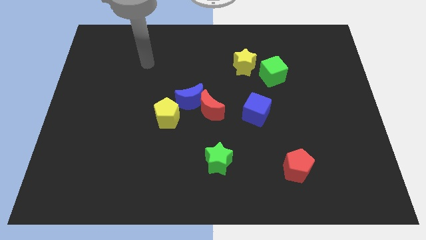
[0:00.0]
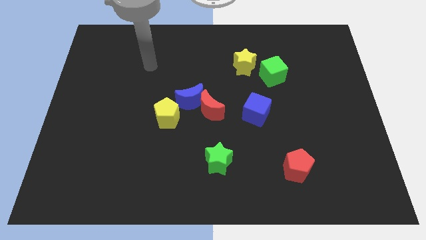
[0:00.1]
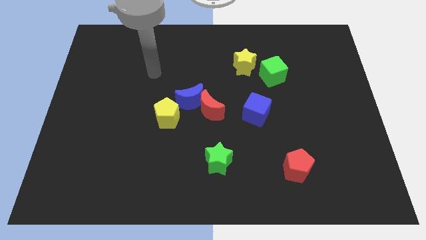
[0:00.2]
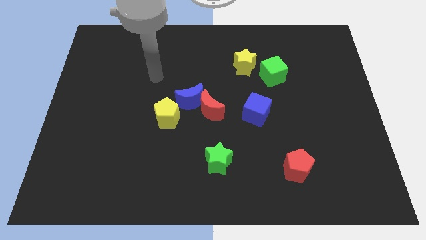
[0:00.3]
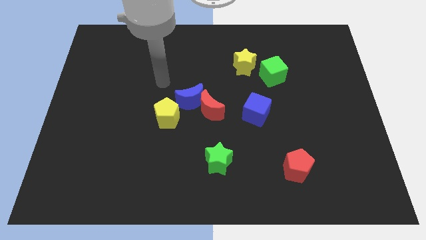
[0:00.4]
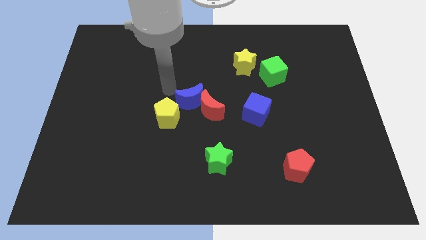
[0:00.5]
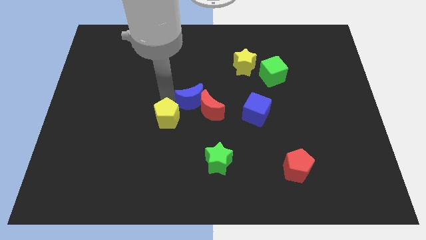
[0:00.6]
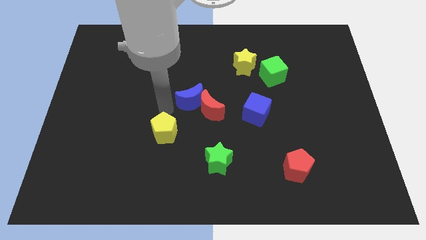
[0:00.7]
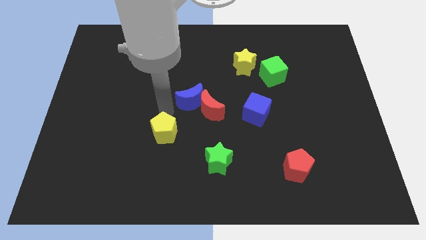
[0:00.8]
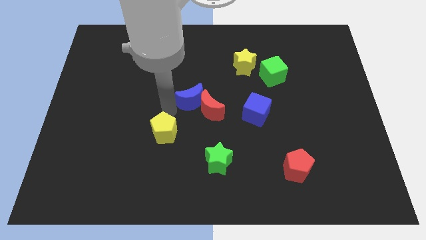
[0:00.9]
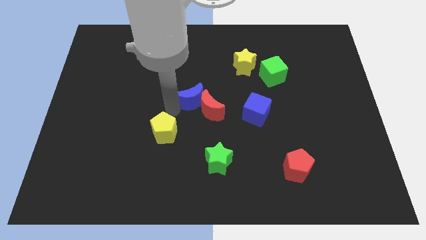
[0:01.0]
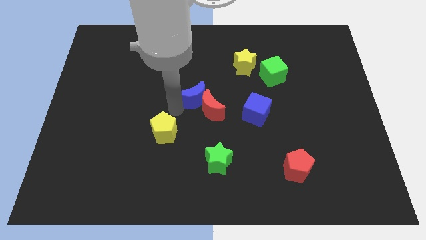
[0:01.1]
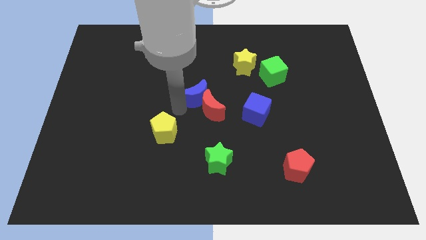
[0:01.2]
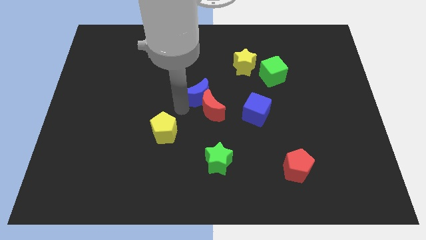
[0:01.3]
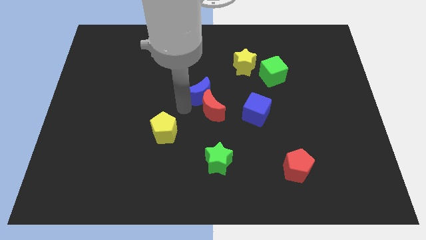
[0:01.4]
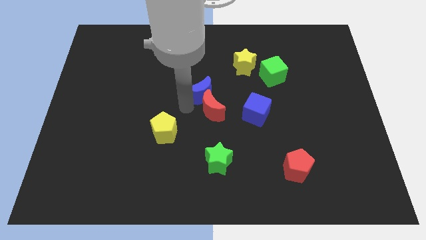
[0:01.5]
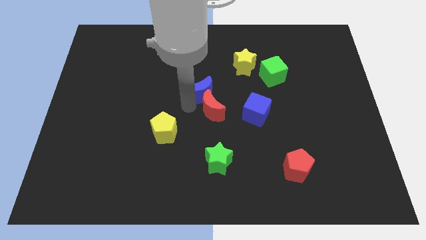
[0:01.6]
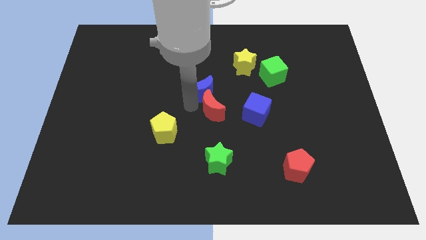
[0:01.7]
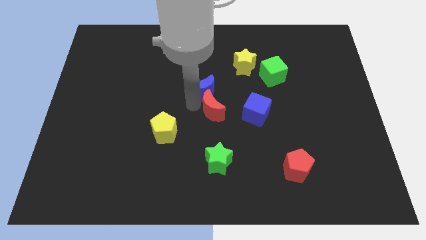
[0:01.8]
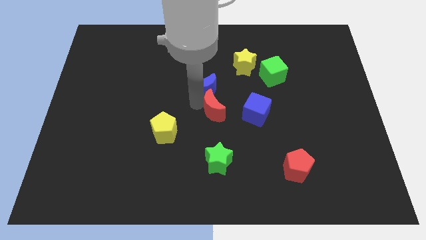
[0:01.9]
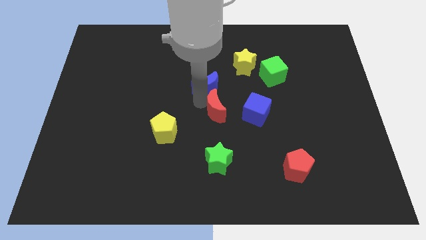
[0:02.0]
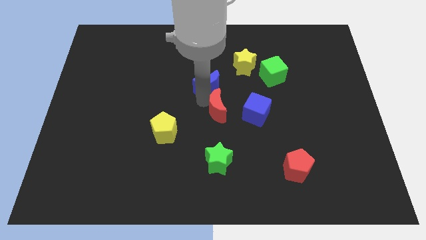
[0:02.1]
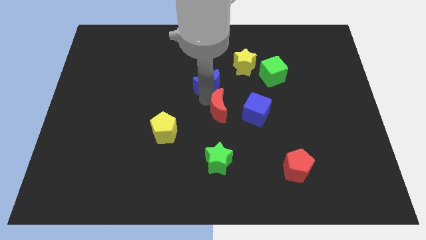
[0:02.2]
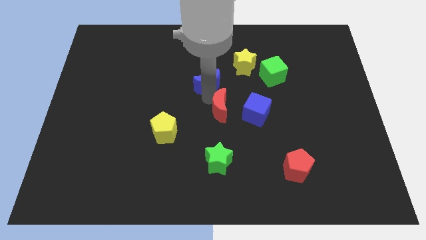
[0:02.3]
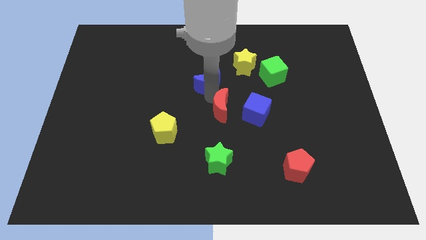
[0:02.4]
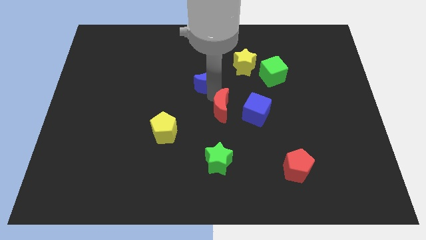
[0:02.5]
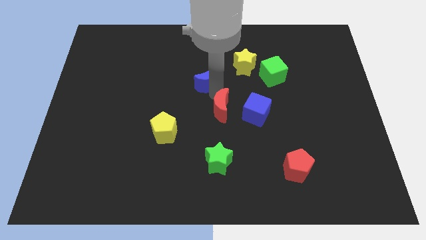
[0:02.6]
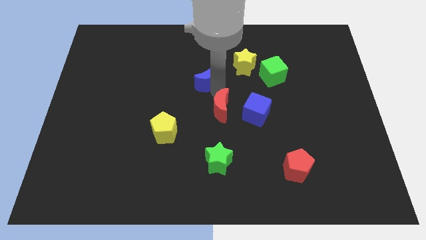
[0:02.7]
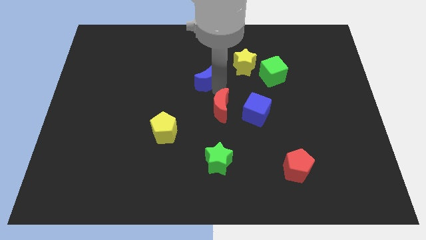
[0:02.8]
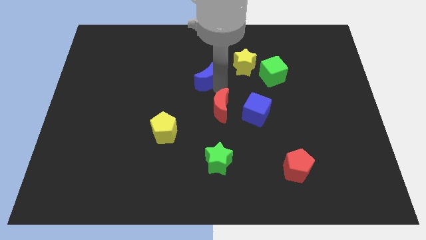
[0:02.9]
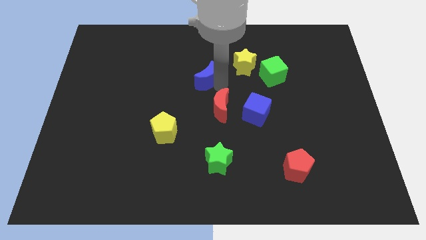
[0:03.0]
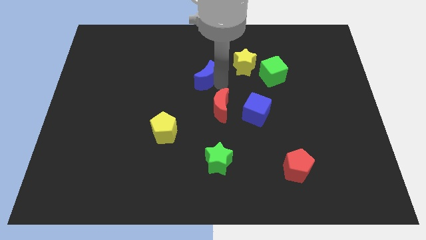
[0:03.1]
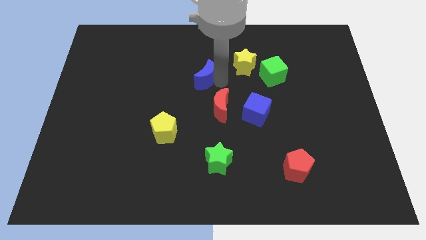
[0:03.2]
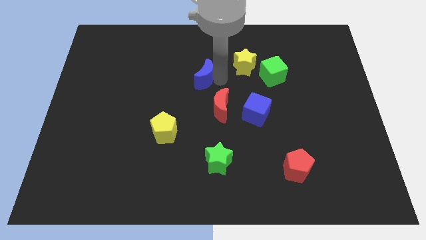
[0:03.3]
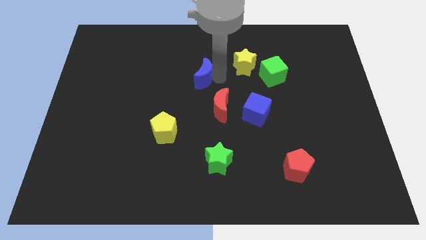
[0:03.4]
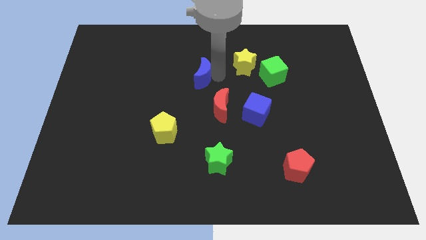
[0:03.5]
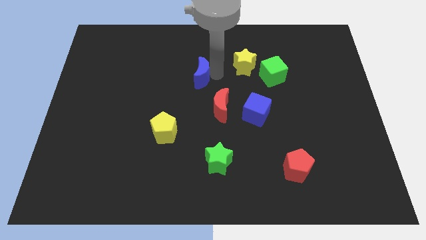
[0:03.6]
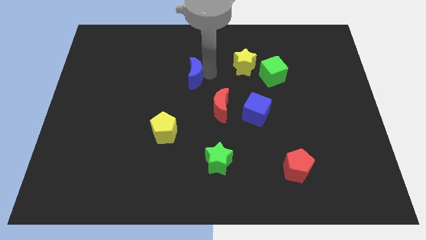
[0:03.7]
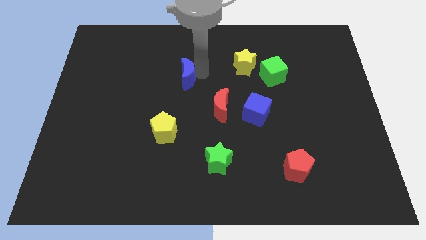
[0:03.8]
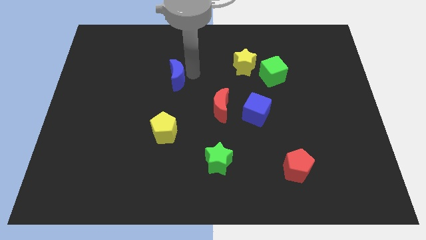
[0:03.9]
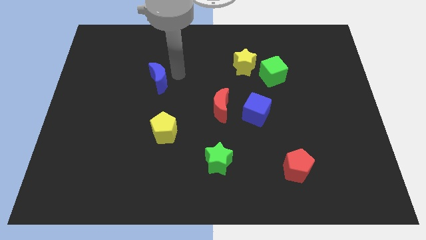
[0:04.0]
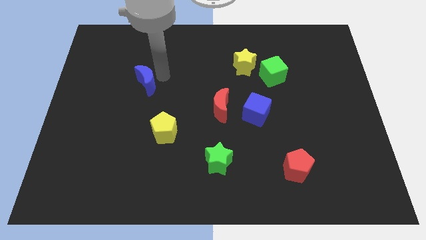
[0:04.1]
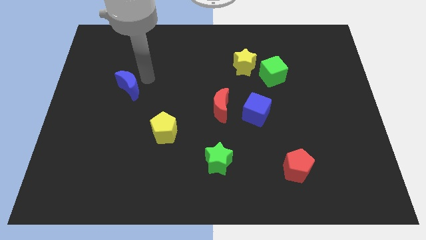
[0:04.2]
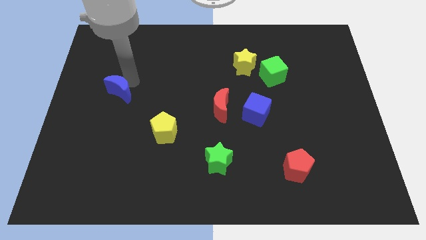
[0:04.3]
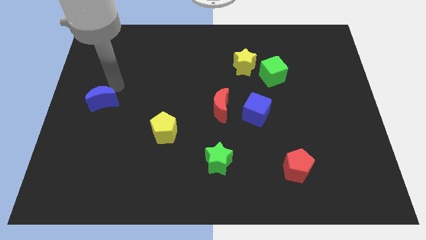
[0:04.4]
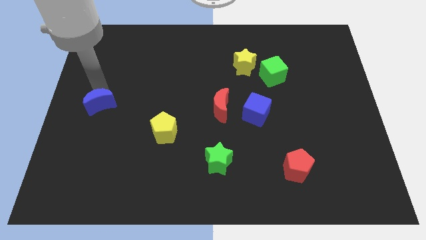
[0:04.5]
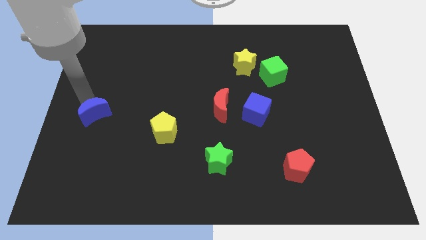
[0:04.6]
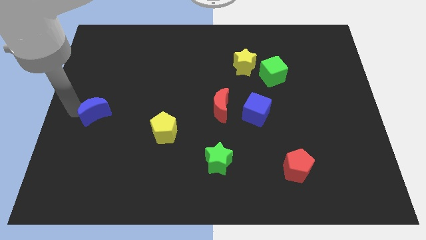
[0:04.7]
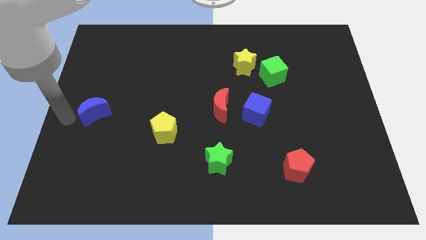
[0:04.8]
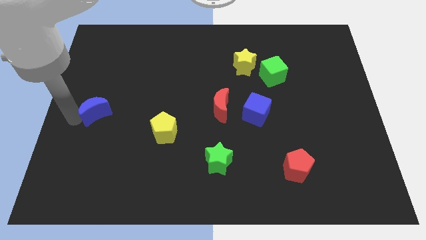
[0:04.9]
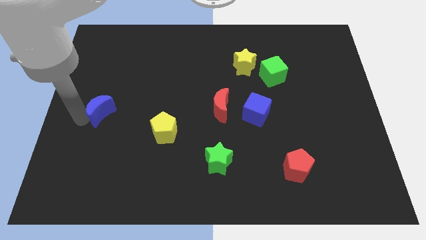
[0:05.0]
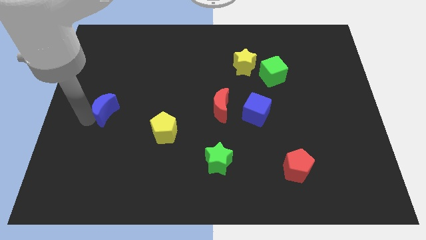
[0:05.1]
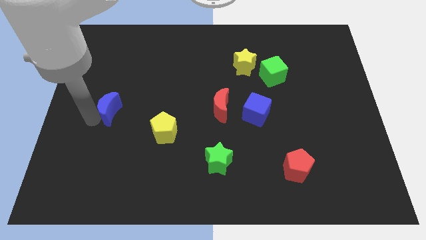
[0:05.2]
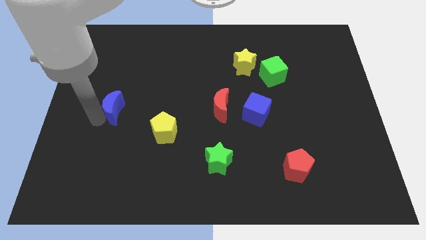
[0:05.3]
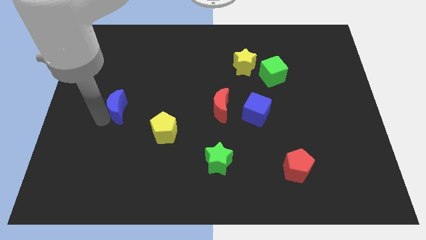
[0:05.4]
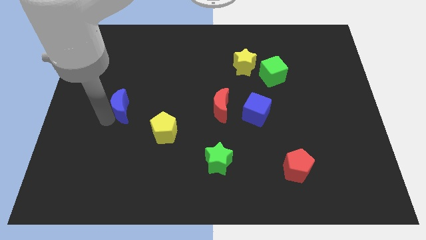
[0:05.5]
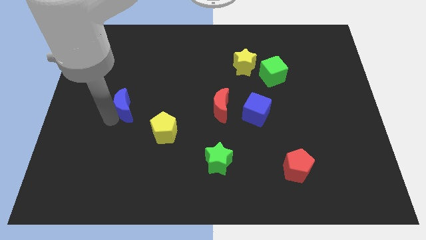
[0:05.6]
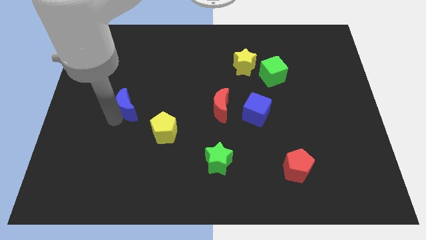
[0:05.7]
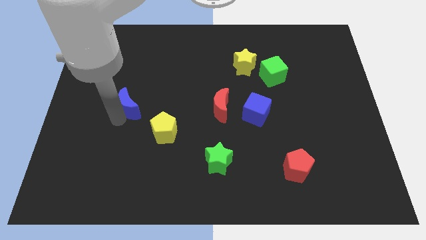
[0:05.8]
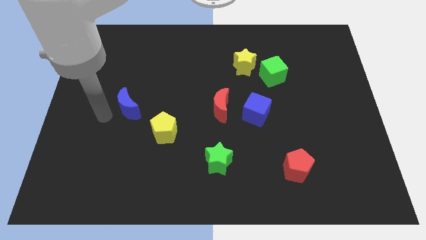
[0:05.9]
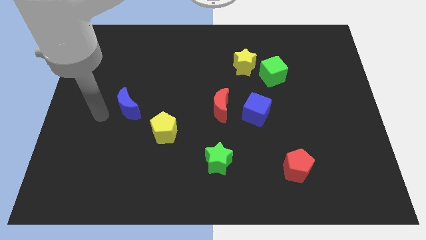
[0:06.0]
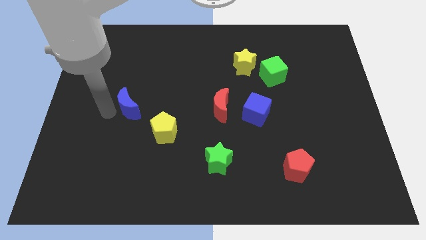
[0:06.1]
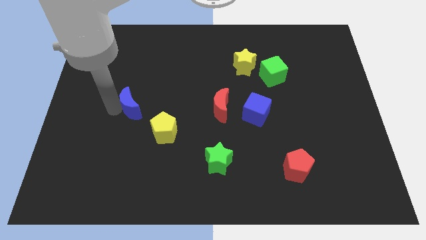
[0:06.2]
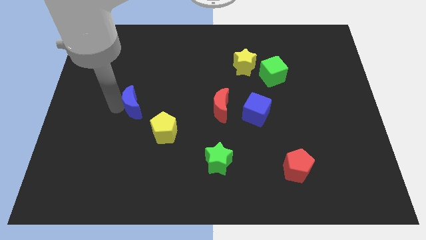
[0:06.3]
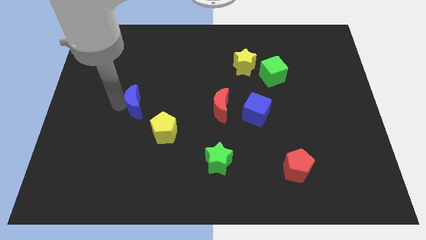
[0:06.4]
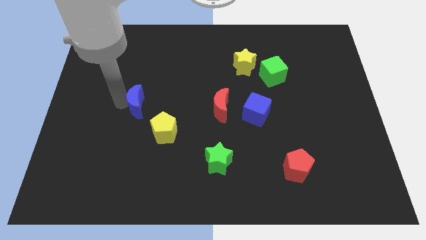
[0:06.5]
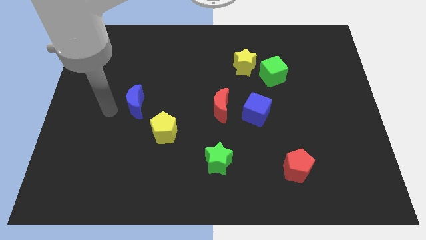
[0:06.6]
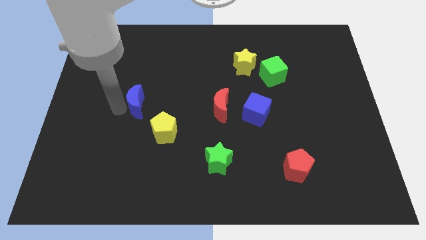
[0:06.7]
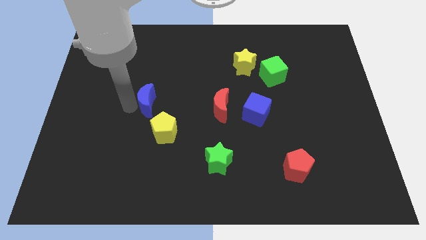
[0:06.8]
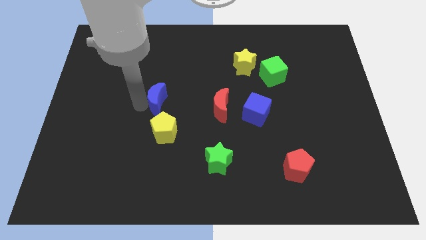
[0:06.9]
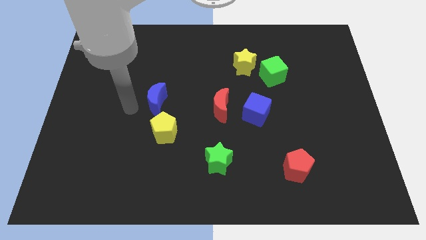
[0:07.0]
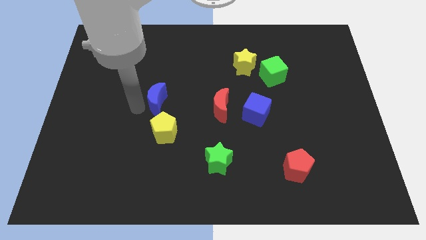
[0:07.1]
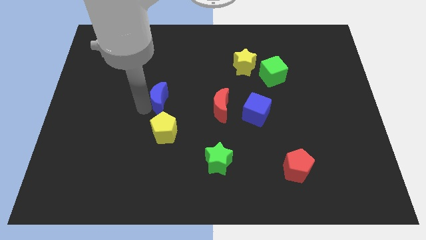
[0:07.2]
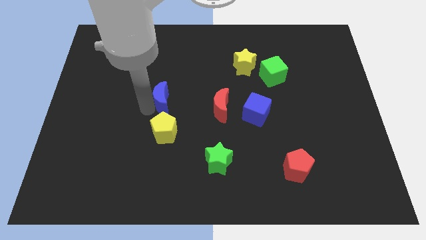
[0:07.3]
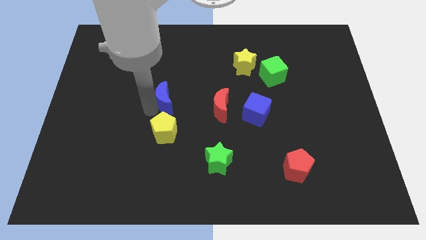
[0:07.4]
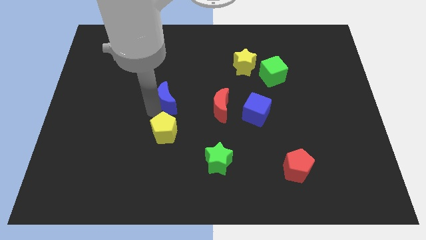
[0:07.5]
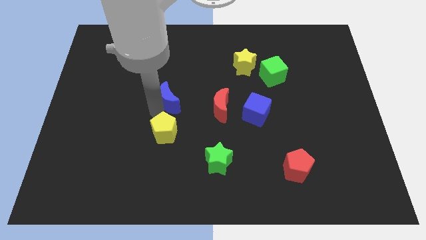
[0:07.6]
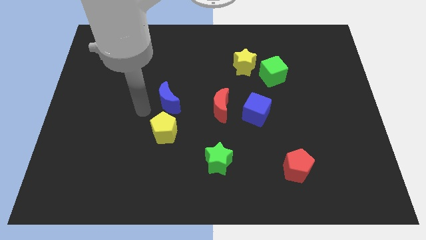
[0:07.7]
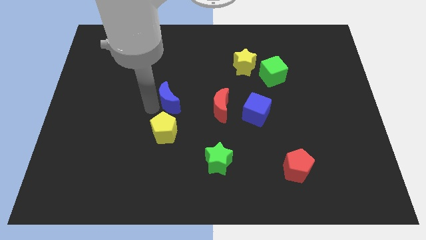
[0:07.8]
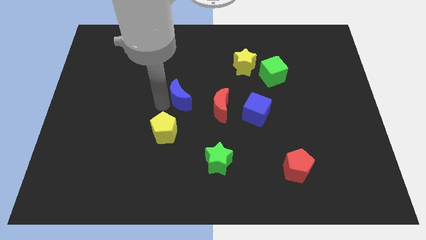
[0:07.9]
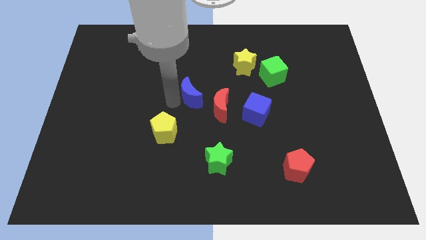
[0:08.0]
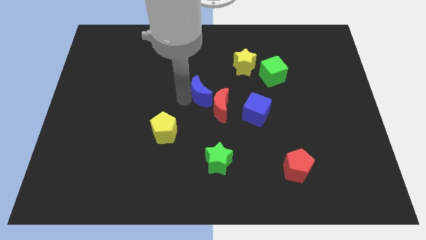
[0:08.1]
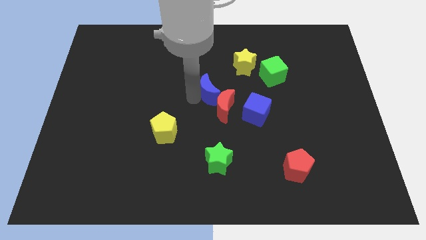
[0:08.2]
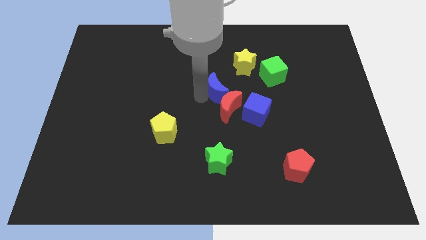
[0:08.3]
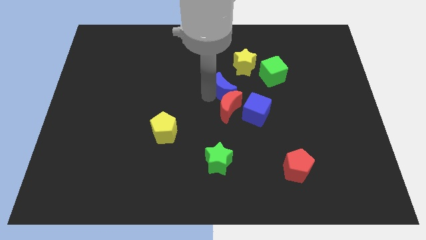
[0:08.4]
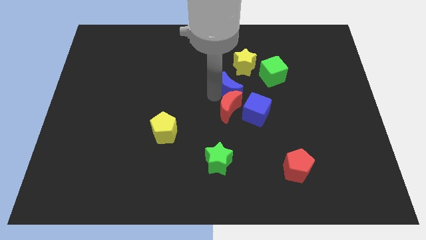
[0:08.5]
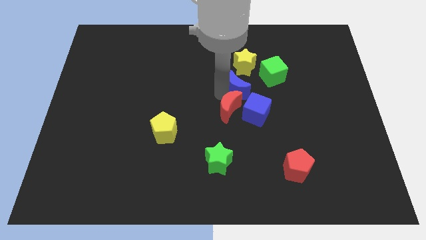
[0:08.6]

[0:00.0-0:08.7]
put the blue moon above the blue cube
